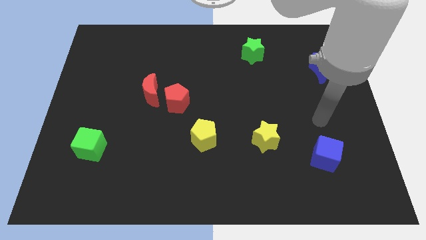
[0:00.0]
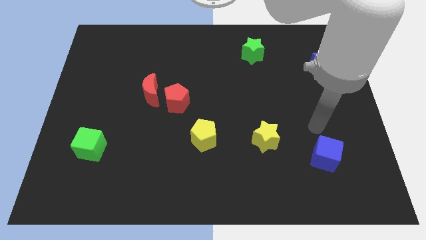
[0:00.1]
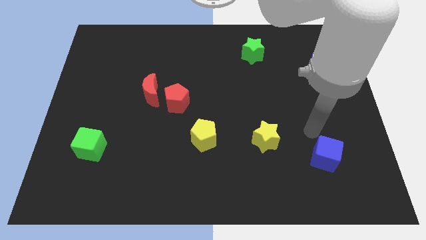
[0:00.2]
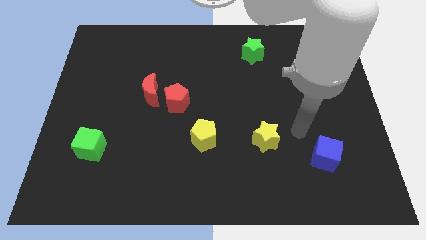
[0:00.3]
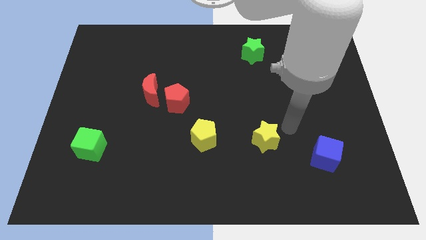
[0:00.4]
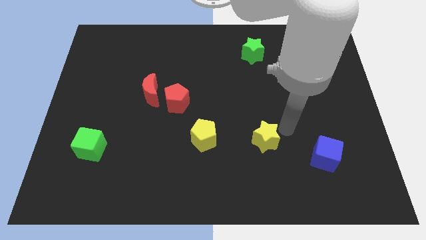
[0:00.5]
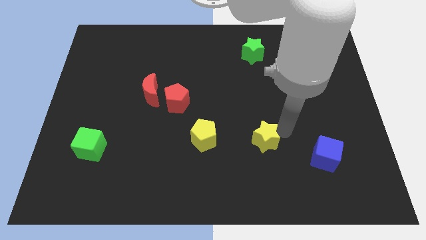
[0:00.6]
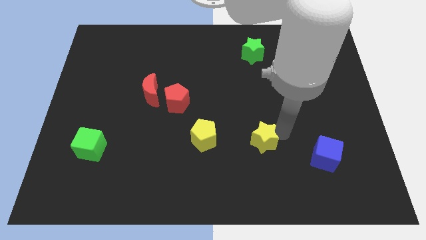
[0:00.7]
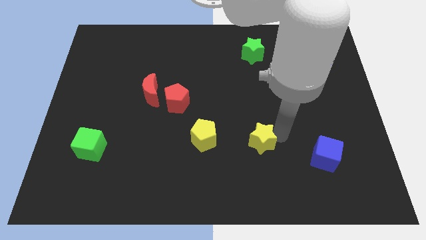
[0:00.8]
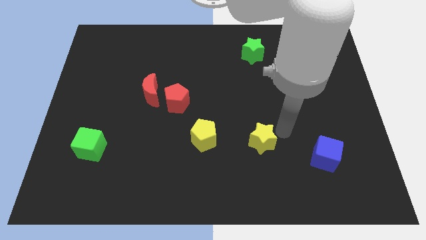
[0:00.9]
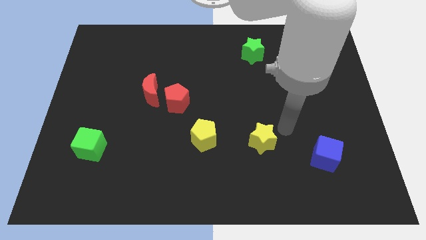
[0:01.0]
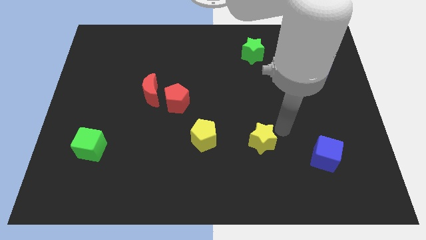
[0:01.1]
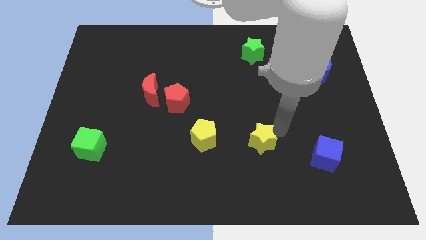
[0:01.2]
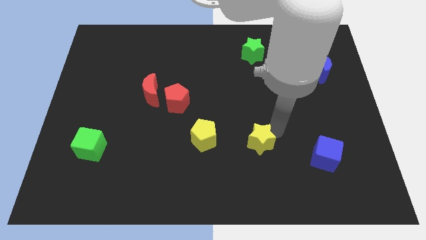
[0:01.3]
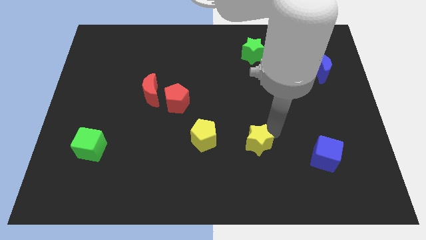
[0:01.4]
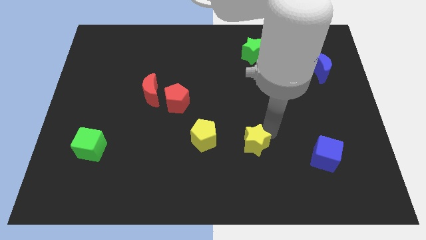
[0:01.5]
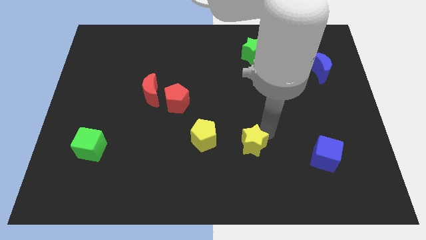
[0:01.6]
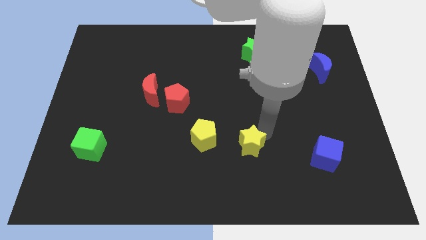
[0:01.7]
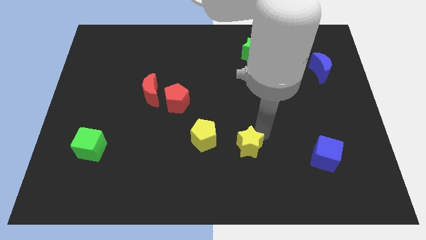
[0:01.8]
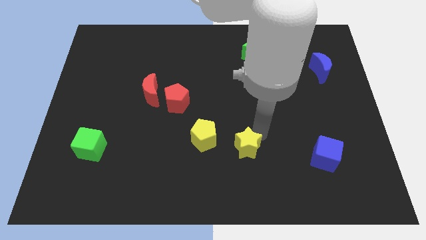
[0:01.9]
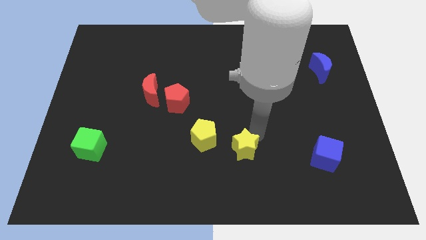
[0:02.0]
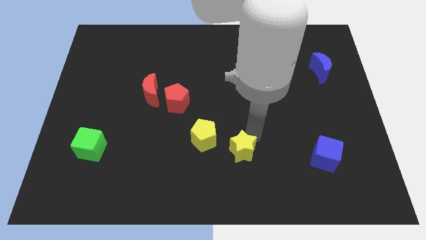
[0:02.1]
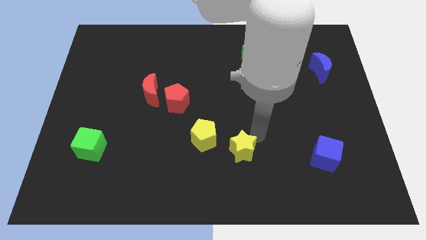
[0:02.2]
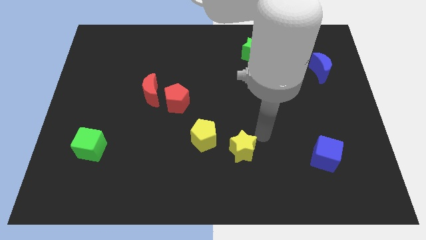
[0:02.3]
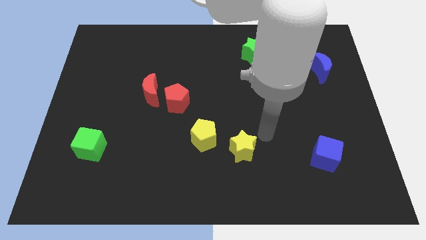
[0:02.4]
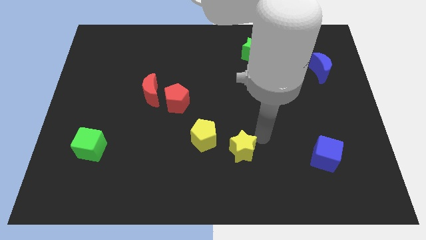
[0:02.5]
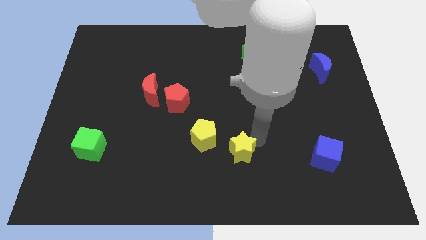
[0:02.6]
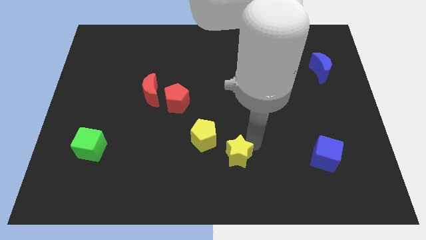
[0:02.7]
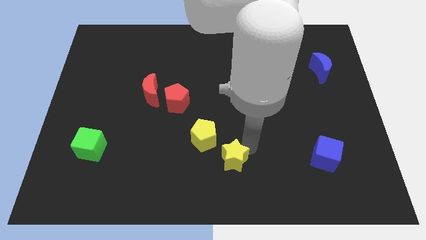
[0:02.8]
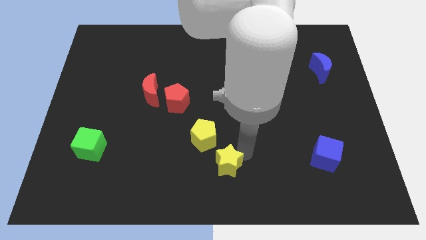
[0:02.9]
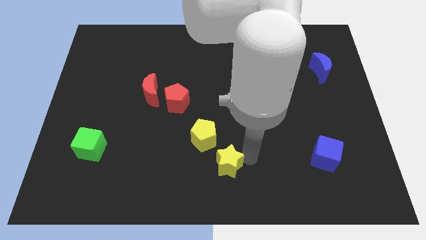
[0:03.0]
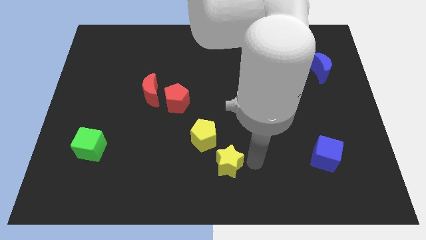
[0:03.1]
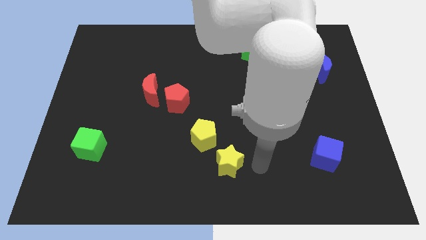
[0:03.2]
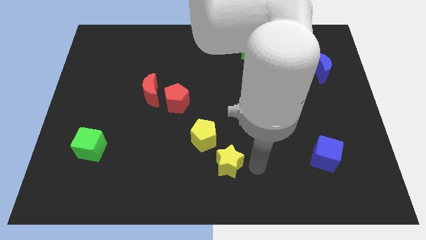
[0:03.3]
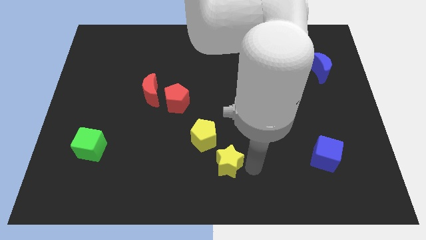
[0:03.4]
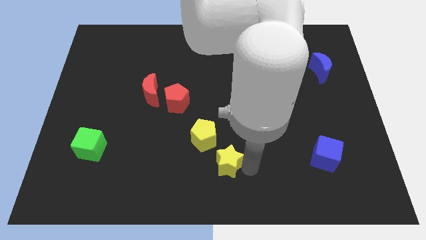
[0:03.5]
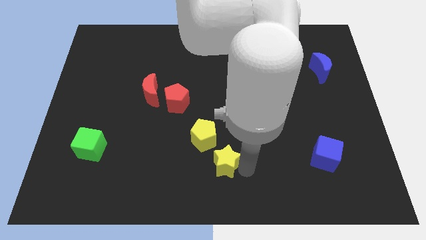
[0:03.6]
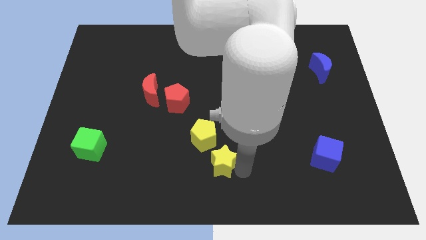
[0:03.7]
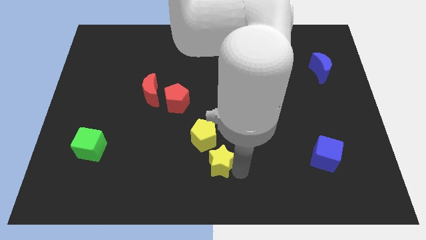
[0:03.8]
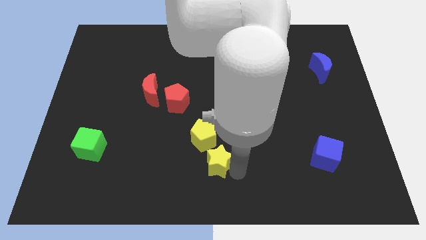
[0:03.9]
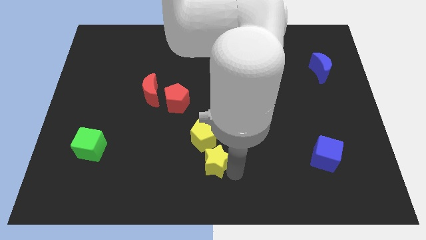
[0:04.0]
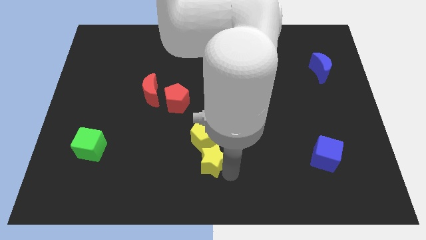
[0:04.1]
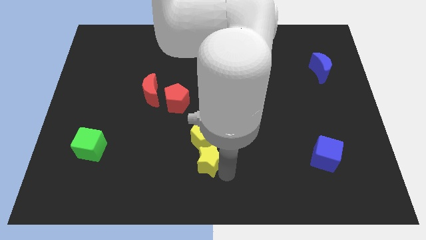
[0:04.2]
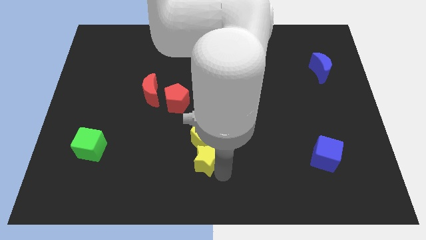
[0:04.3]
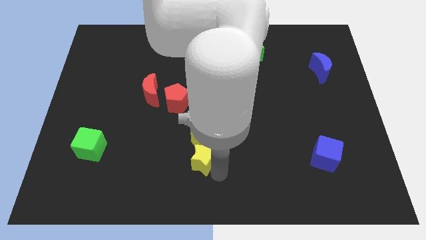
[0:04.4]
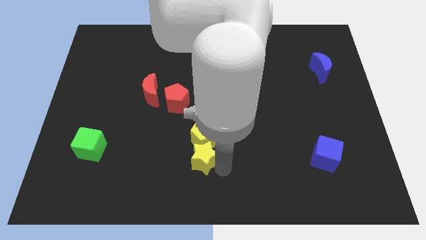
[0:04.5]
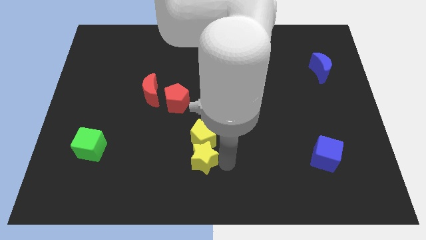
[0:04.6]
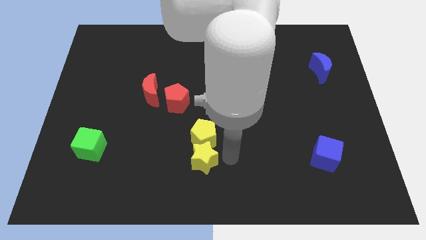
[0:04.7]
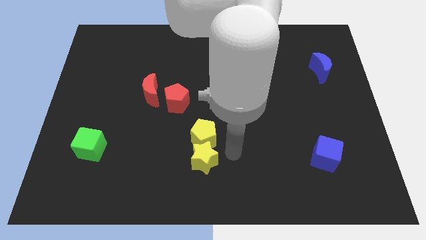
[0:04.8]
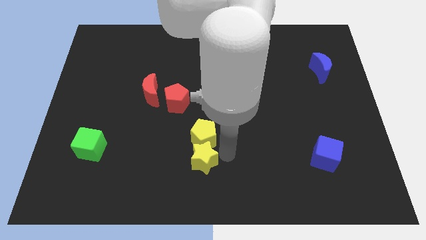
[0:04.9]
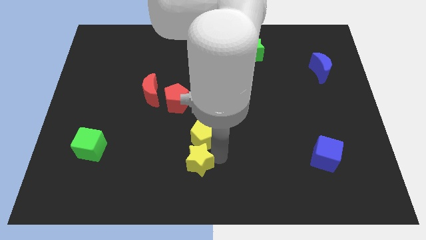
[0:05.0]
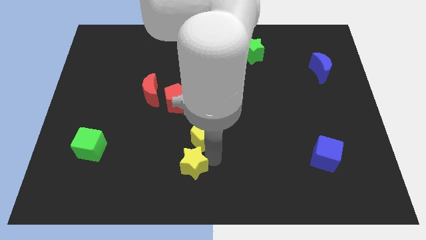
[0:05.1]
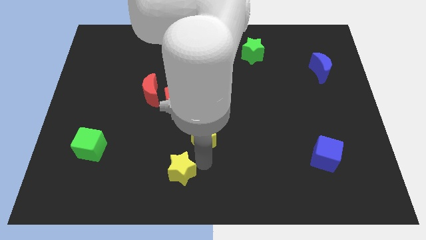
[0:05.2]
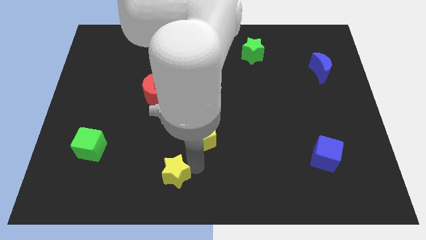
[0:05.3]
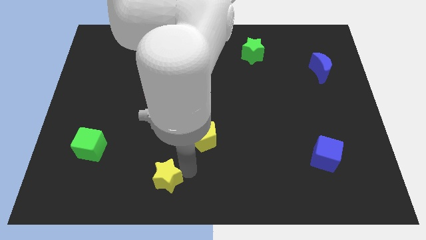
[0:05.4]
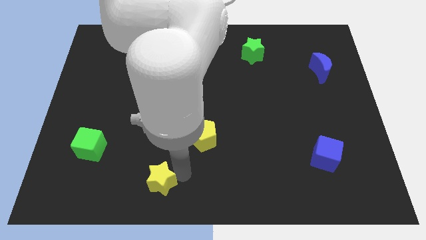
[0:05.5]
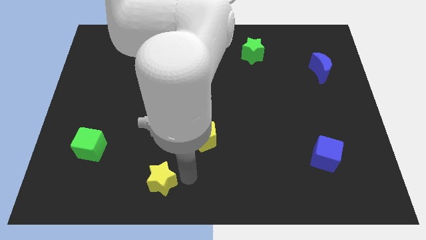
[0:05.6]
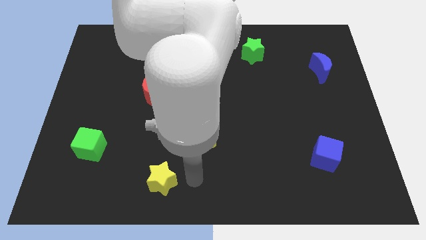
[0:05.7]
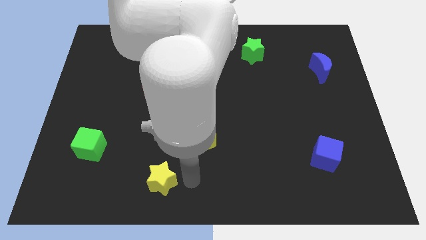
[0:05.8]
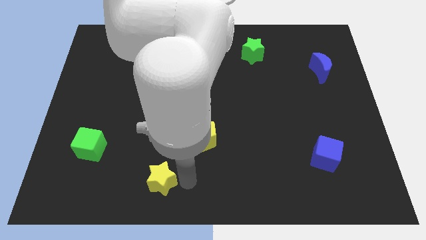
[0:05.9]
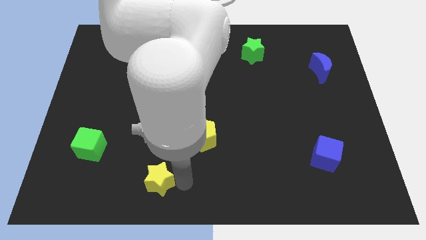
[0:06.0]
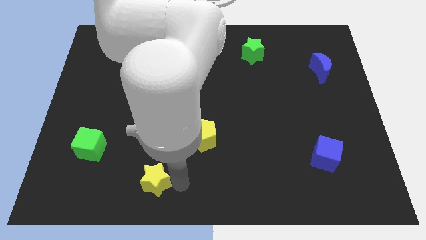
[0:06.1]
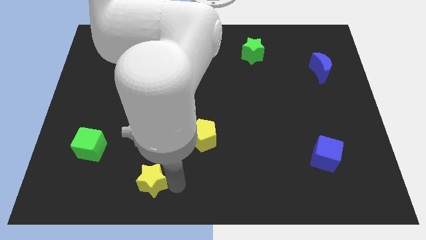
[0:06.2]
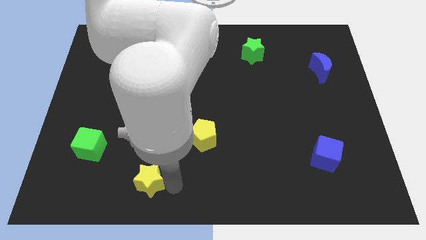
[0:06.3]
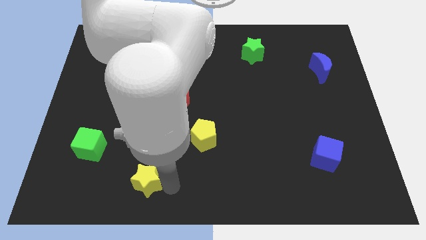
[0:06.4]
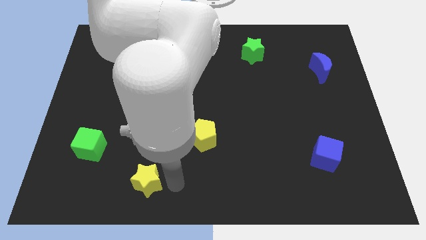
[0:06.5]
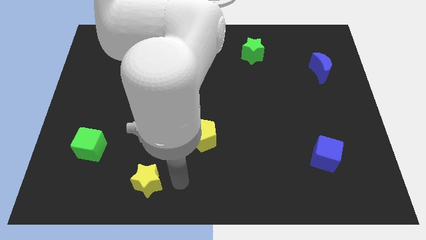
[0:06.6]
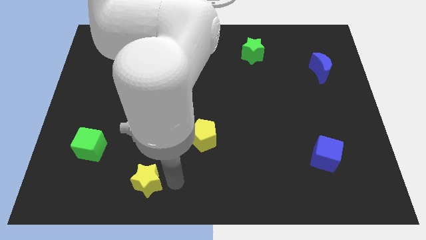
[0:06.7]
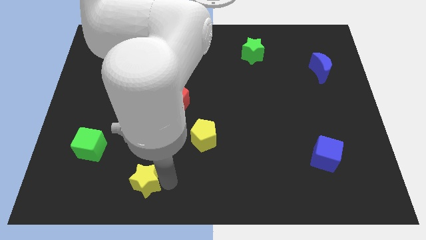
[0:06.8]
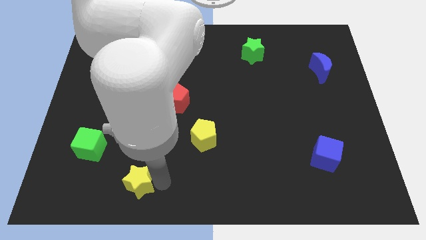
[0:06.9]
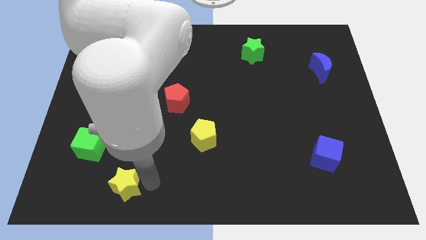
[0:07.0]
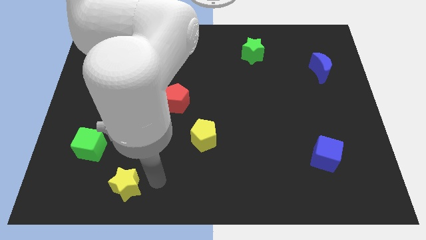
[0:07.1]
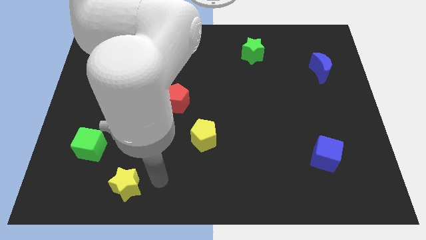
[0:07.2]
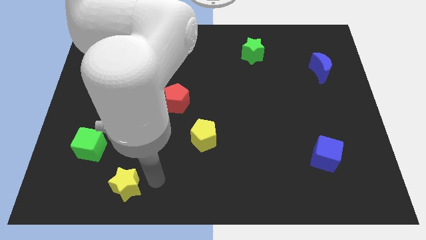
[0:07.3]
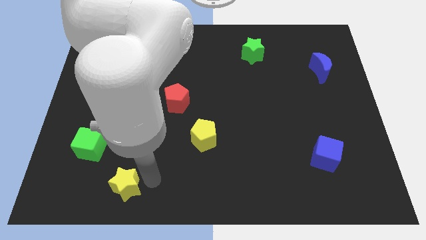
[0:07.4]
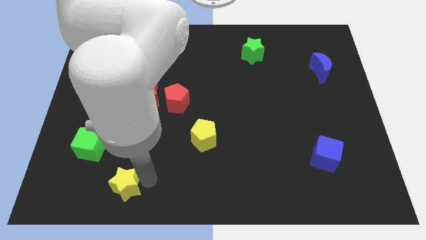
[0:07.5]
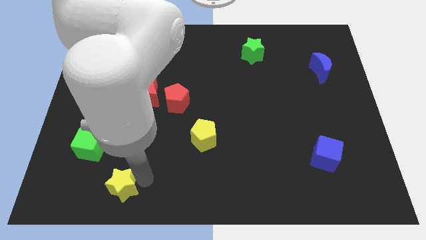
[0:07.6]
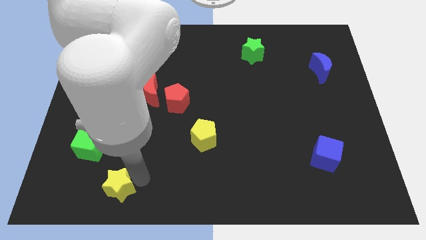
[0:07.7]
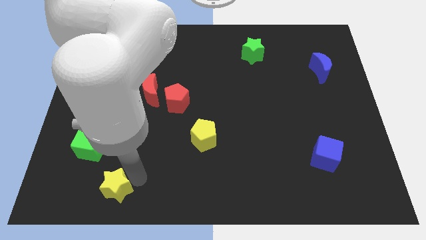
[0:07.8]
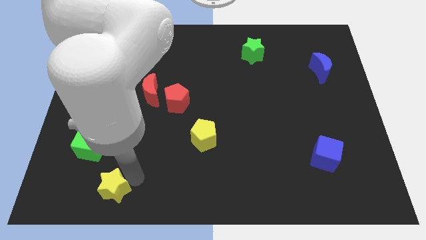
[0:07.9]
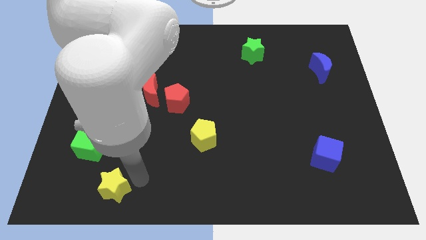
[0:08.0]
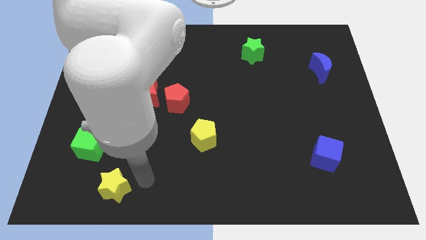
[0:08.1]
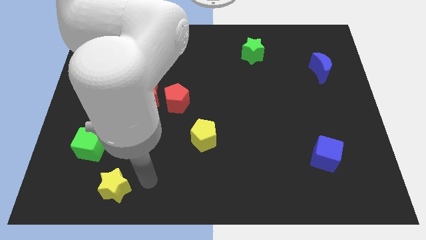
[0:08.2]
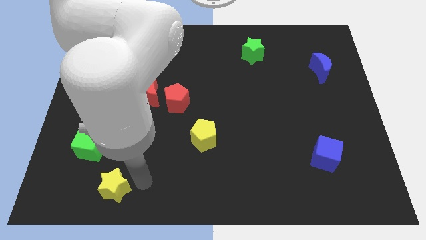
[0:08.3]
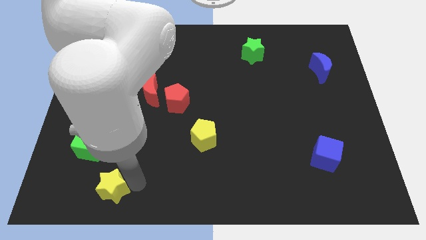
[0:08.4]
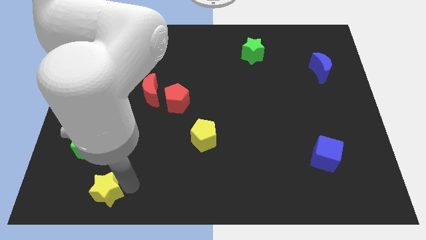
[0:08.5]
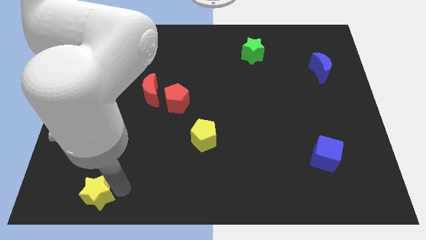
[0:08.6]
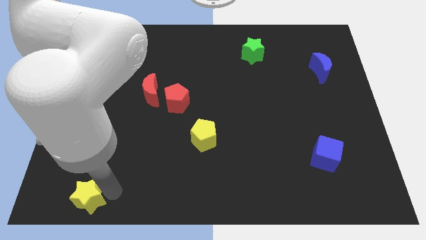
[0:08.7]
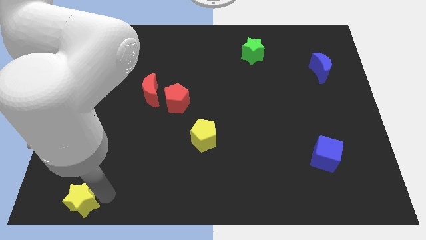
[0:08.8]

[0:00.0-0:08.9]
slide the yellow star to the lower left corner
